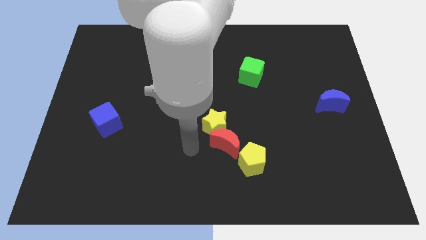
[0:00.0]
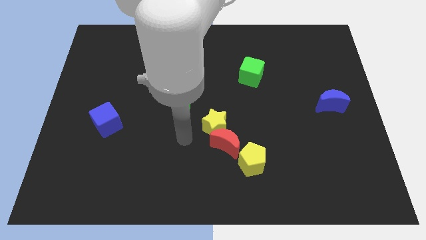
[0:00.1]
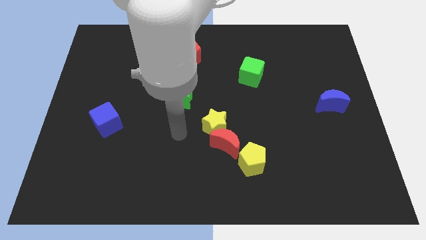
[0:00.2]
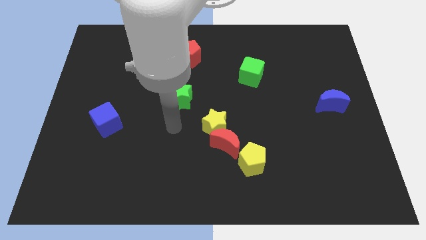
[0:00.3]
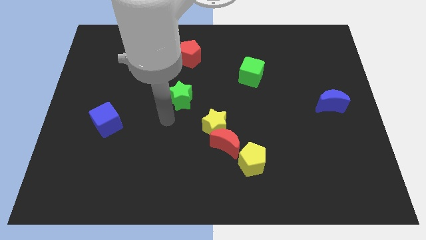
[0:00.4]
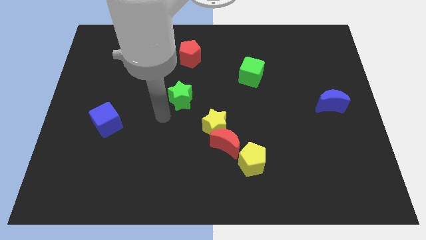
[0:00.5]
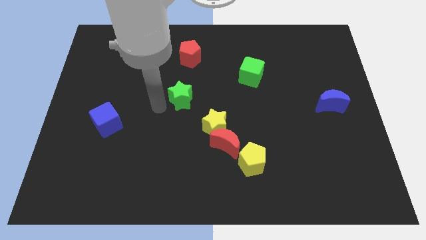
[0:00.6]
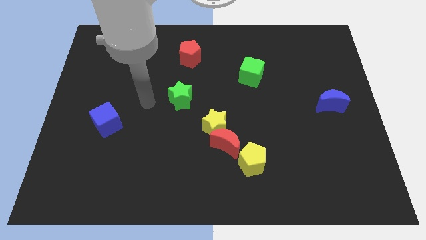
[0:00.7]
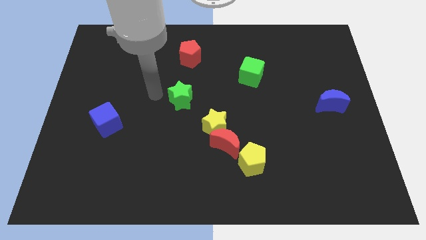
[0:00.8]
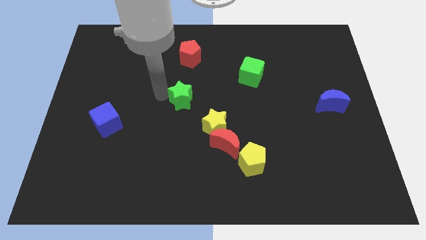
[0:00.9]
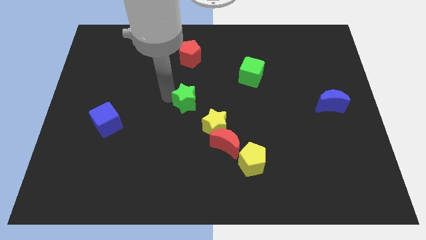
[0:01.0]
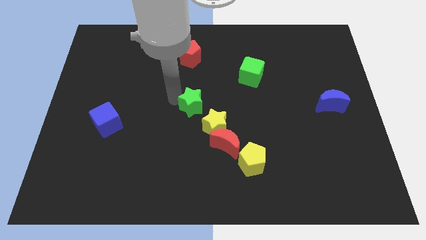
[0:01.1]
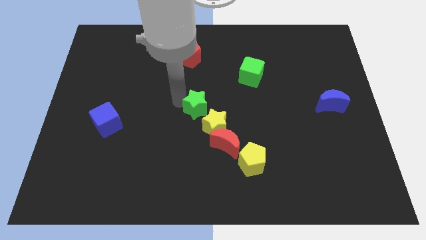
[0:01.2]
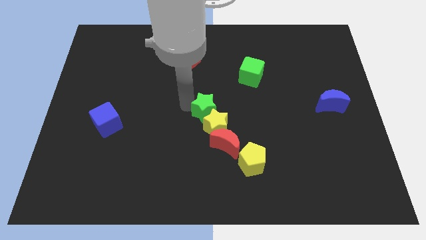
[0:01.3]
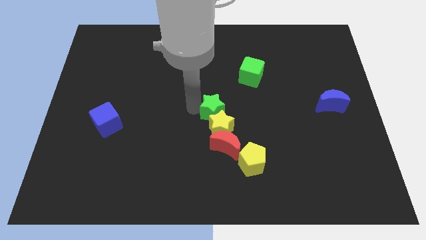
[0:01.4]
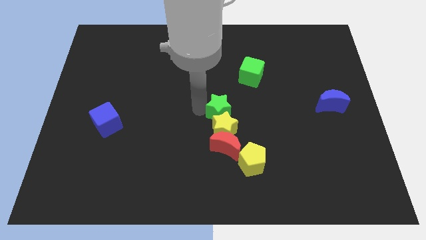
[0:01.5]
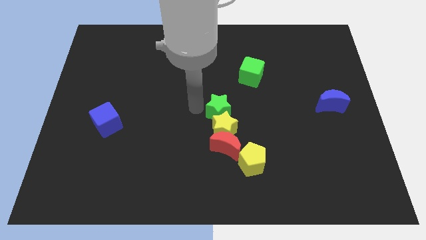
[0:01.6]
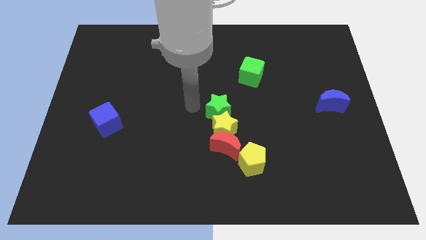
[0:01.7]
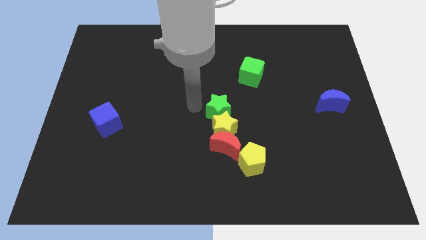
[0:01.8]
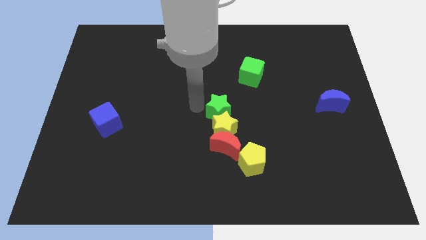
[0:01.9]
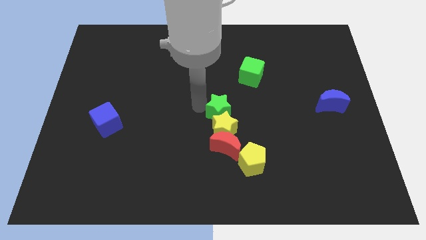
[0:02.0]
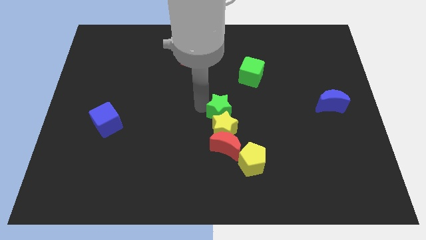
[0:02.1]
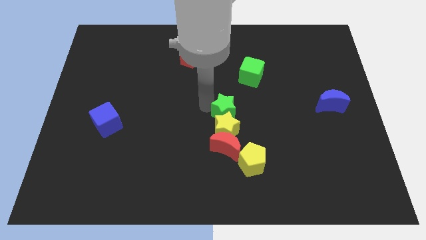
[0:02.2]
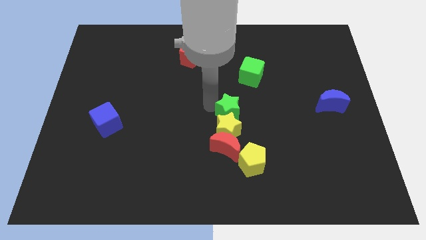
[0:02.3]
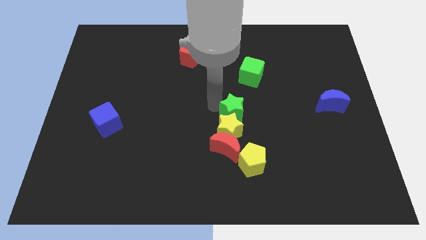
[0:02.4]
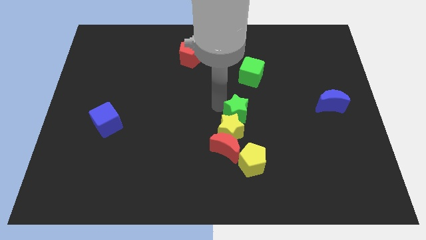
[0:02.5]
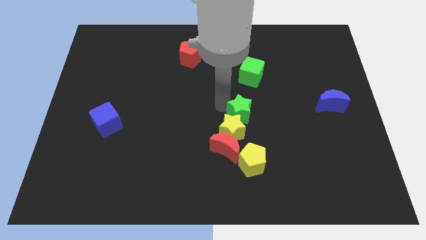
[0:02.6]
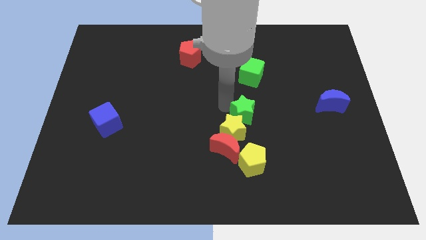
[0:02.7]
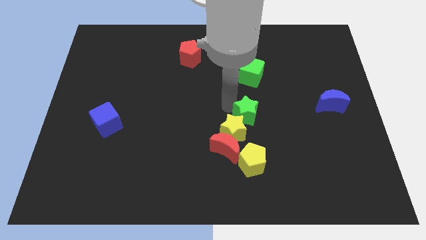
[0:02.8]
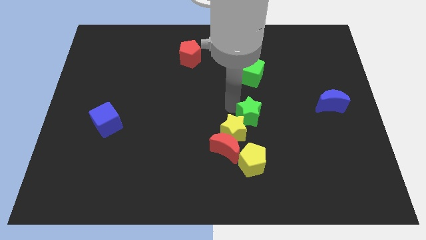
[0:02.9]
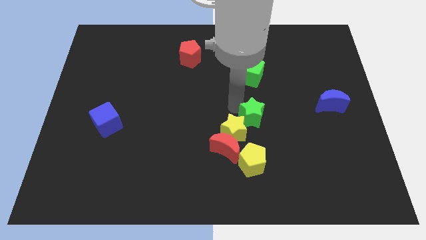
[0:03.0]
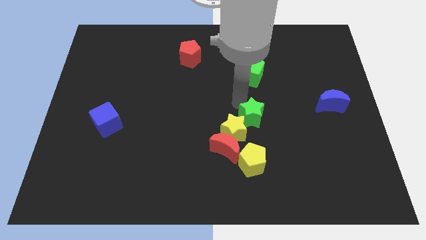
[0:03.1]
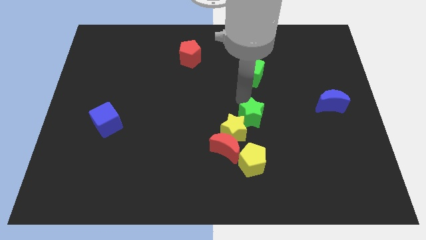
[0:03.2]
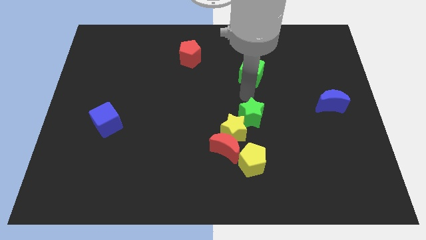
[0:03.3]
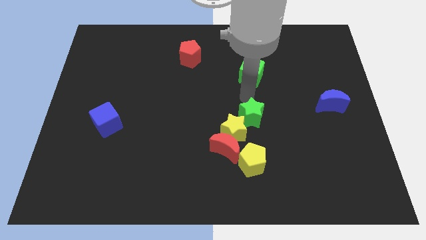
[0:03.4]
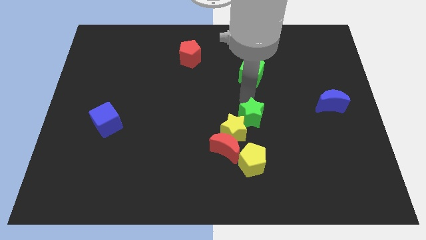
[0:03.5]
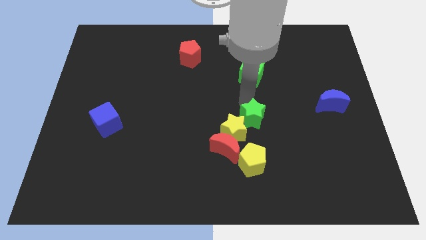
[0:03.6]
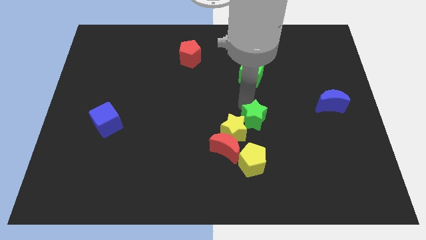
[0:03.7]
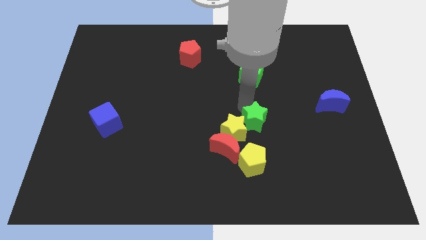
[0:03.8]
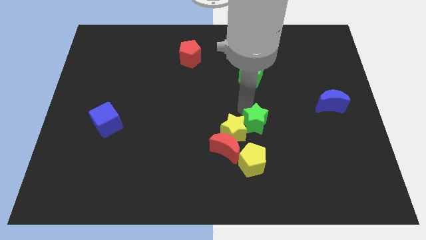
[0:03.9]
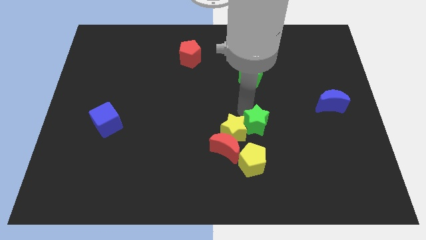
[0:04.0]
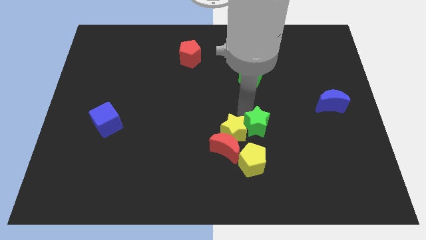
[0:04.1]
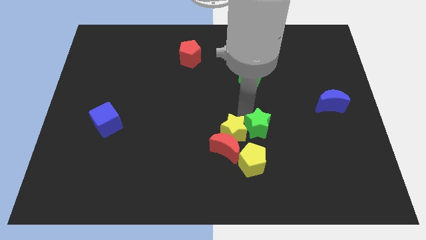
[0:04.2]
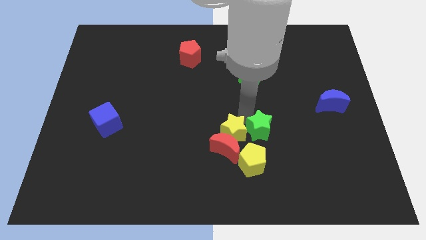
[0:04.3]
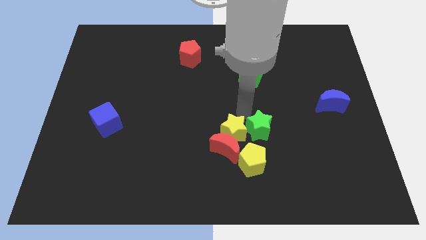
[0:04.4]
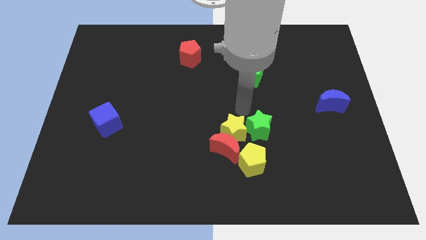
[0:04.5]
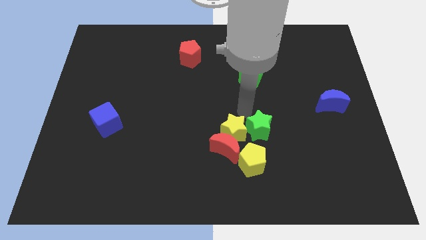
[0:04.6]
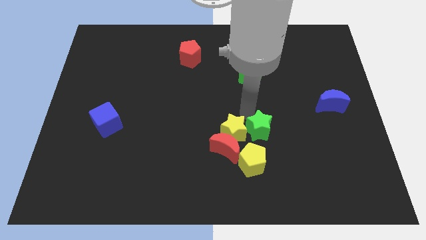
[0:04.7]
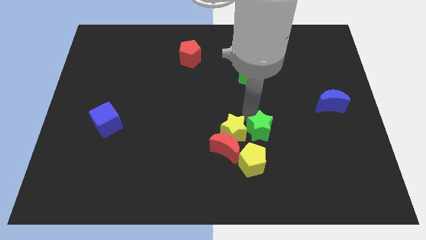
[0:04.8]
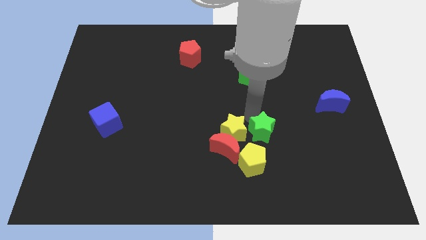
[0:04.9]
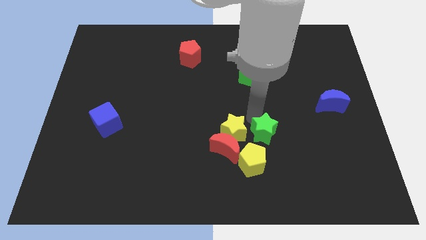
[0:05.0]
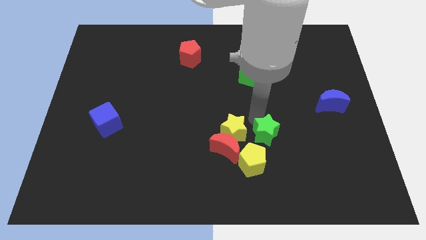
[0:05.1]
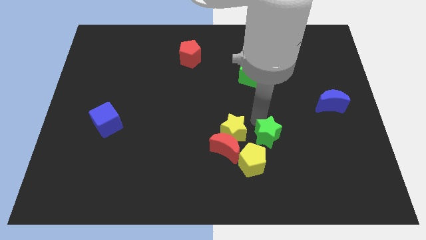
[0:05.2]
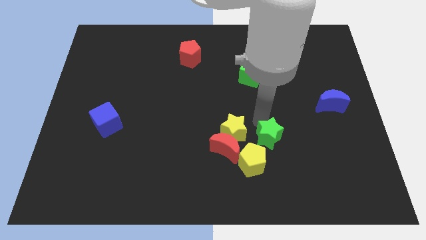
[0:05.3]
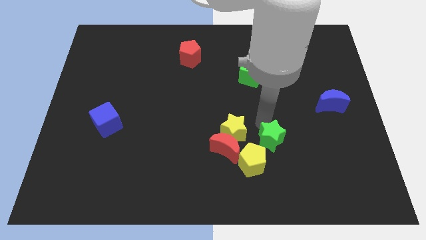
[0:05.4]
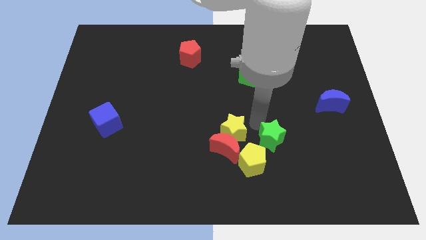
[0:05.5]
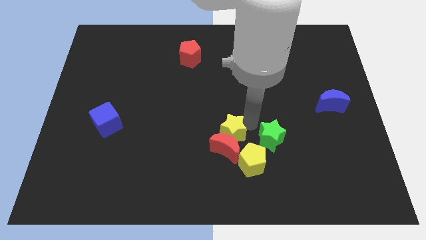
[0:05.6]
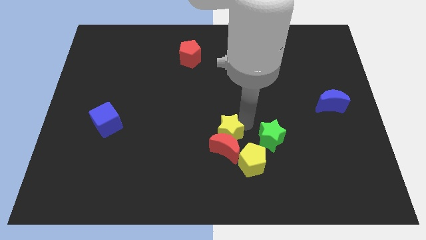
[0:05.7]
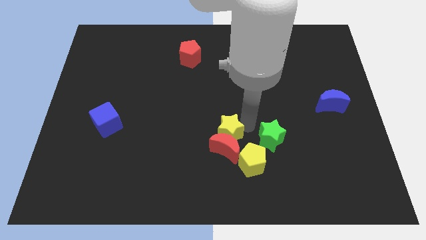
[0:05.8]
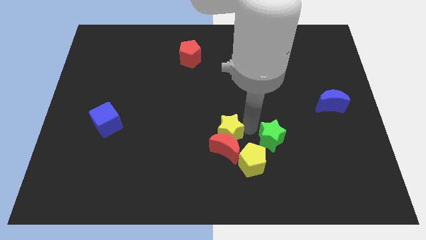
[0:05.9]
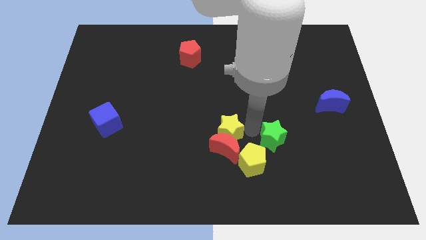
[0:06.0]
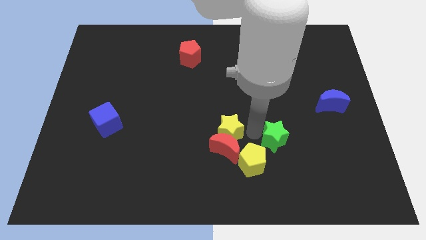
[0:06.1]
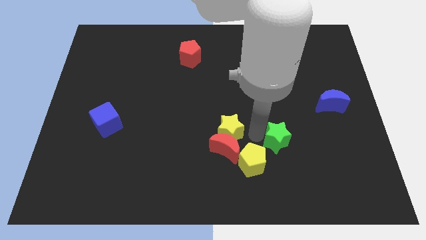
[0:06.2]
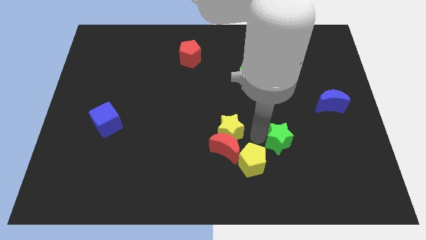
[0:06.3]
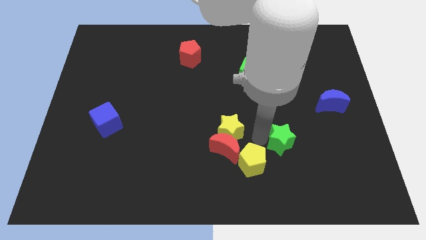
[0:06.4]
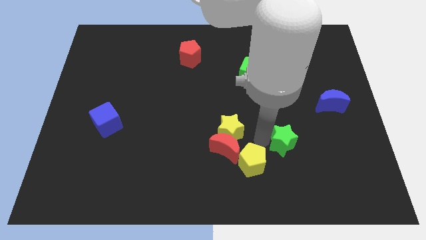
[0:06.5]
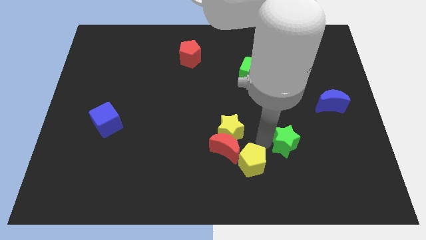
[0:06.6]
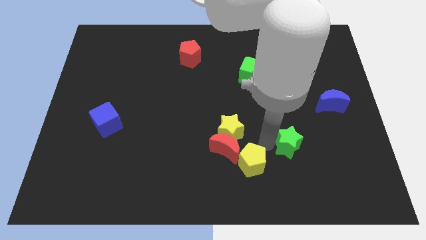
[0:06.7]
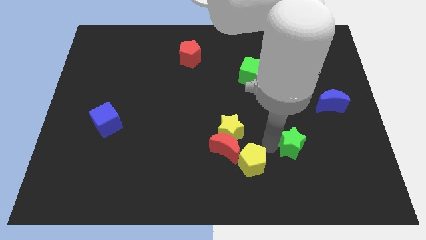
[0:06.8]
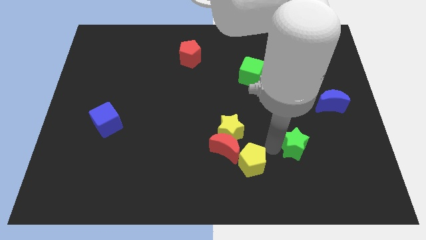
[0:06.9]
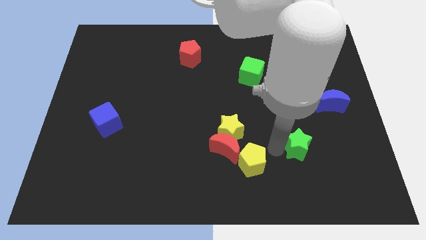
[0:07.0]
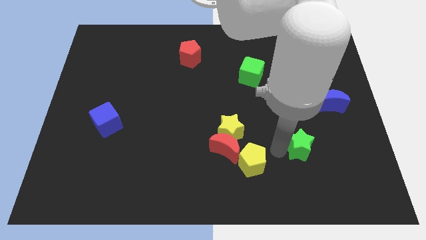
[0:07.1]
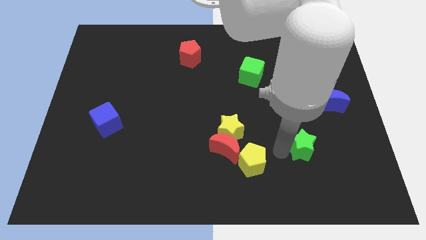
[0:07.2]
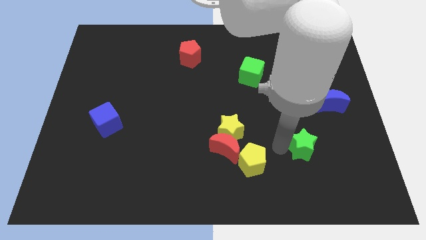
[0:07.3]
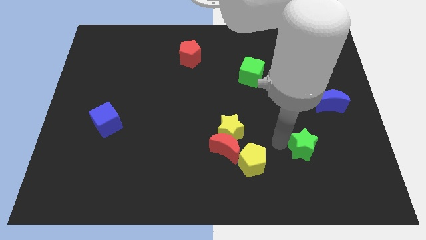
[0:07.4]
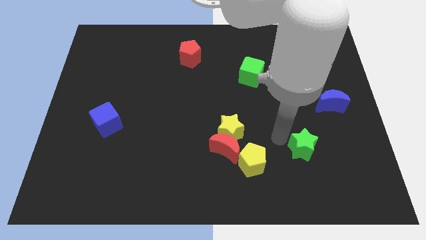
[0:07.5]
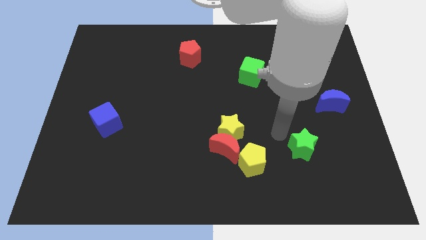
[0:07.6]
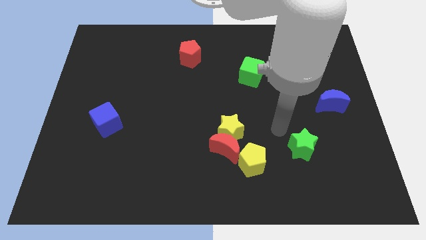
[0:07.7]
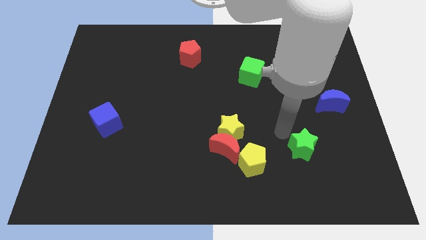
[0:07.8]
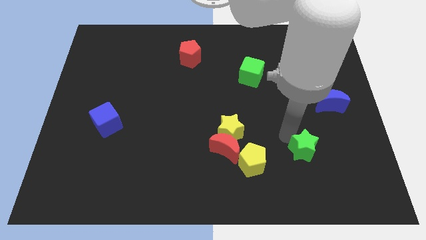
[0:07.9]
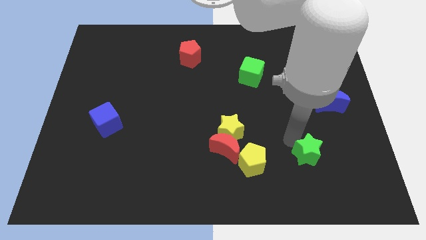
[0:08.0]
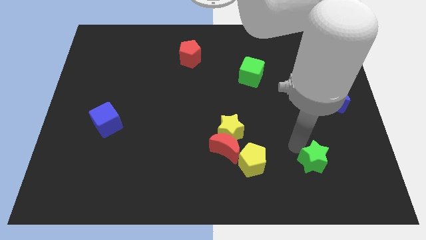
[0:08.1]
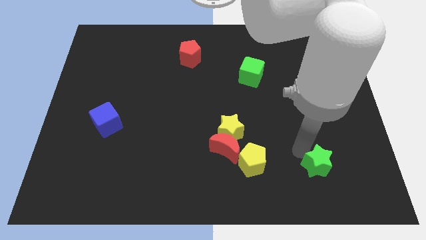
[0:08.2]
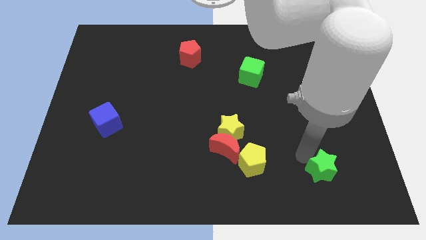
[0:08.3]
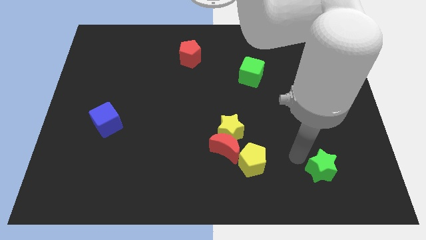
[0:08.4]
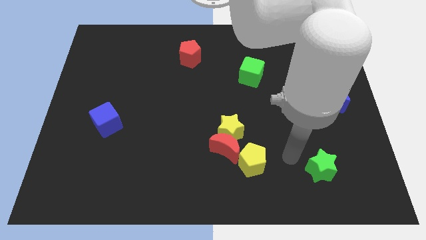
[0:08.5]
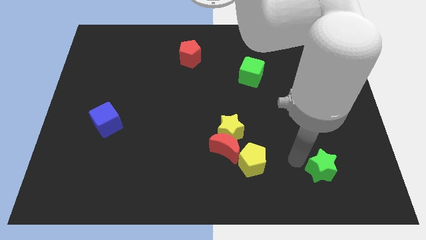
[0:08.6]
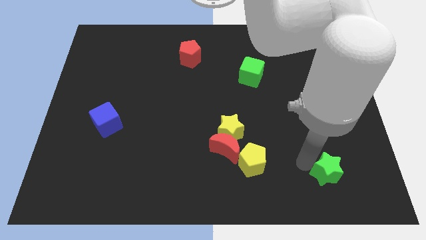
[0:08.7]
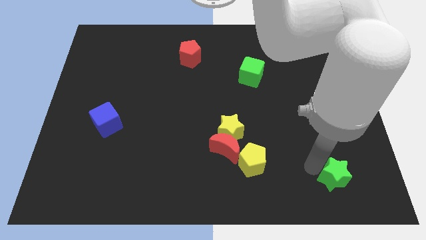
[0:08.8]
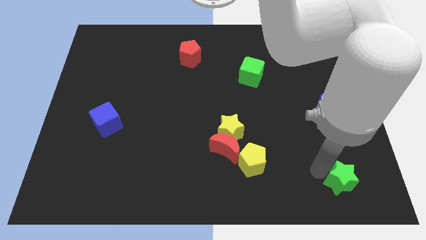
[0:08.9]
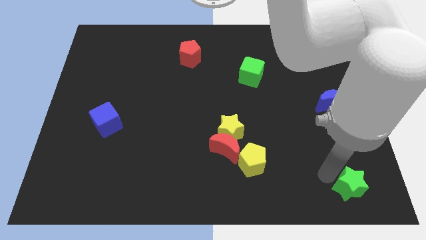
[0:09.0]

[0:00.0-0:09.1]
push the green star to the lower right corner
